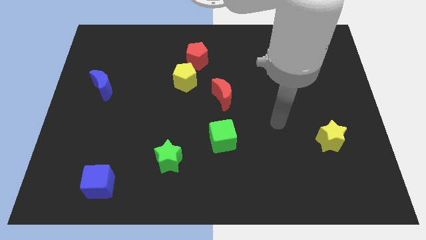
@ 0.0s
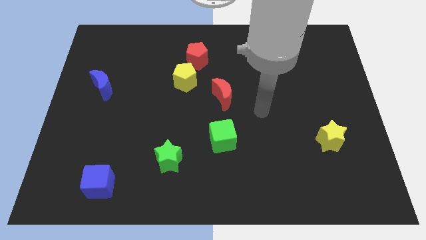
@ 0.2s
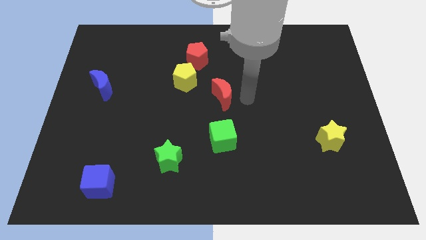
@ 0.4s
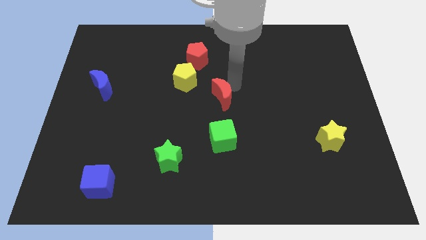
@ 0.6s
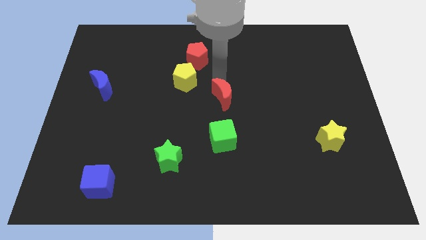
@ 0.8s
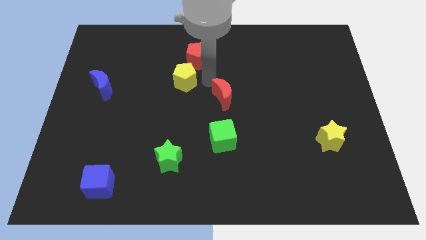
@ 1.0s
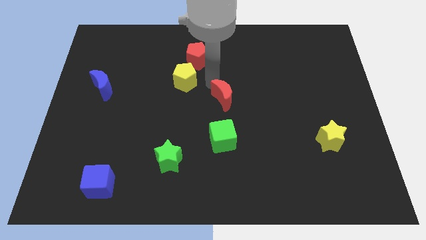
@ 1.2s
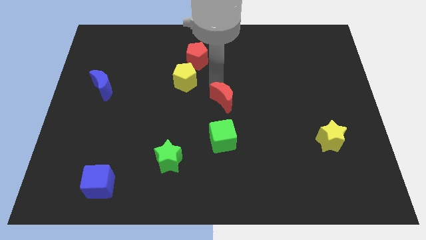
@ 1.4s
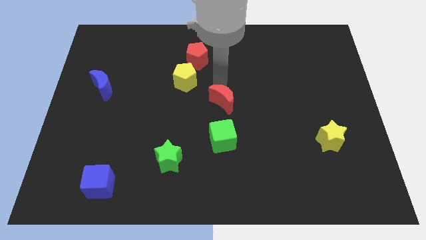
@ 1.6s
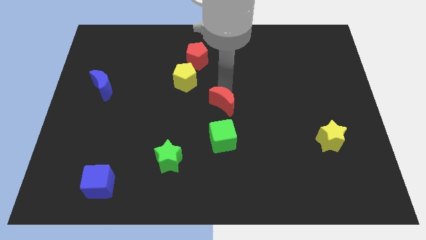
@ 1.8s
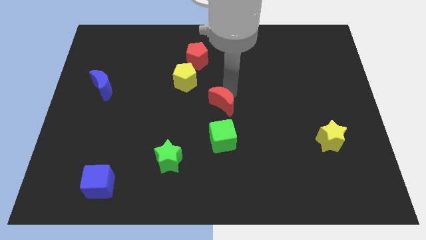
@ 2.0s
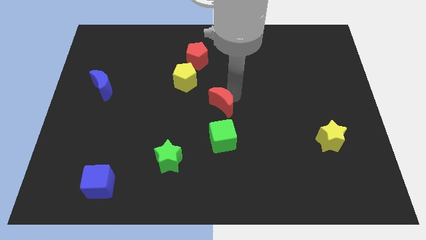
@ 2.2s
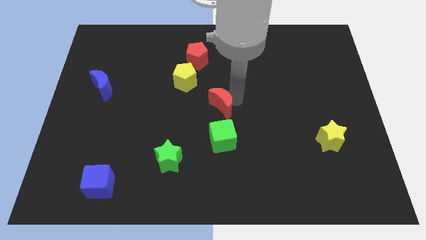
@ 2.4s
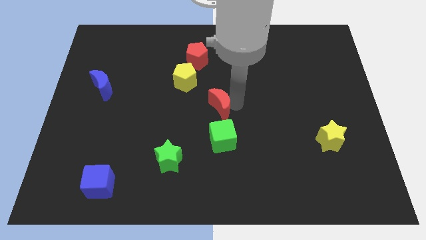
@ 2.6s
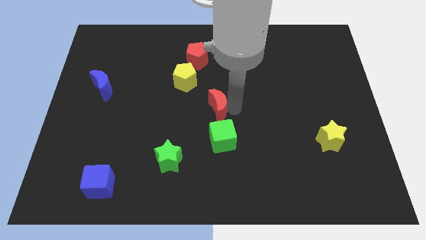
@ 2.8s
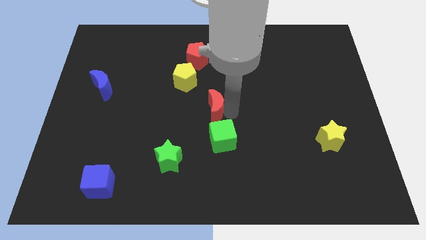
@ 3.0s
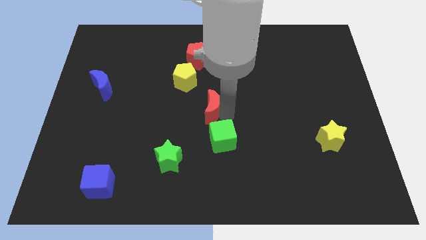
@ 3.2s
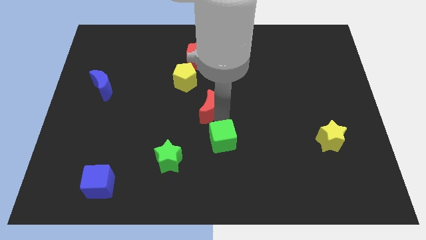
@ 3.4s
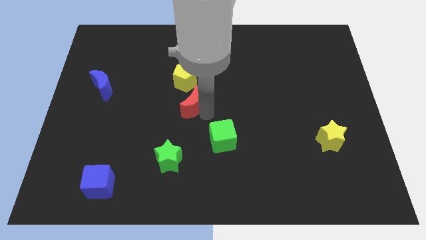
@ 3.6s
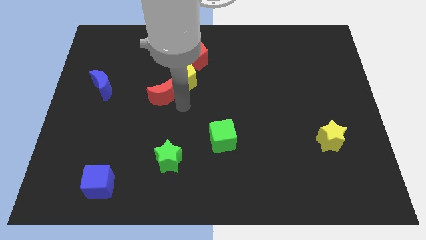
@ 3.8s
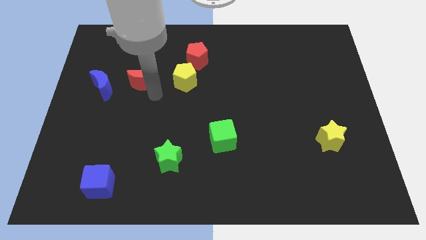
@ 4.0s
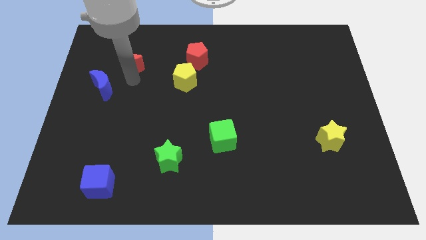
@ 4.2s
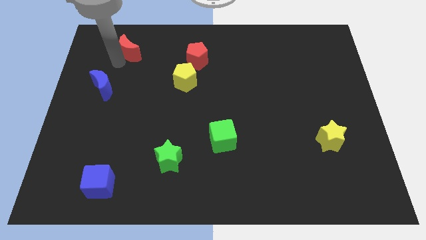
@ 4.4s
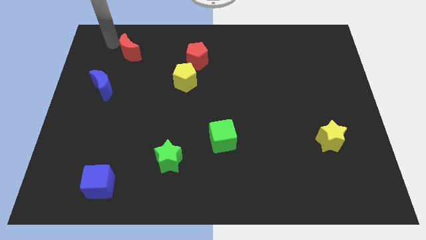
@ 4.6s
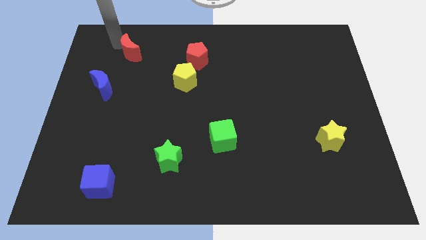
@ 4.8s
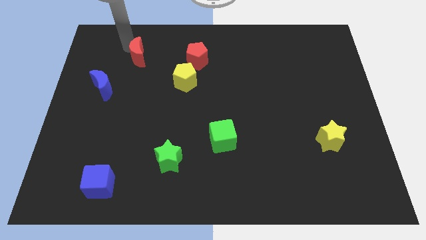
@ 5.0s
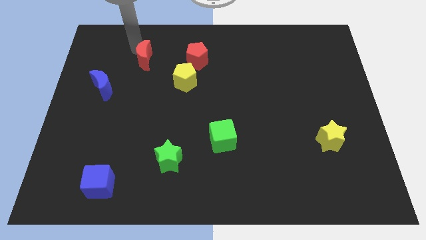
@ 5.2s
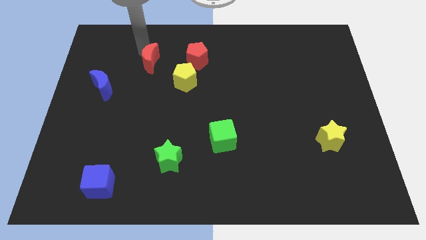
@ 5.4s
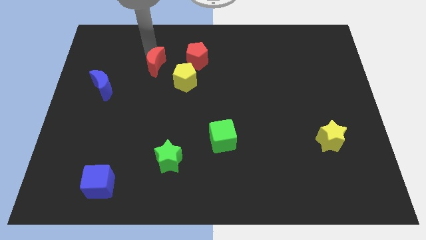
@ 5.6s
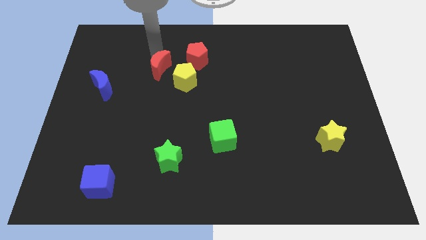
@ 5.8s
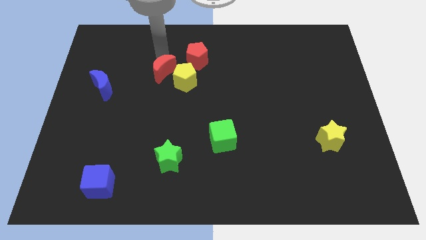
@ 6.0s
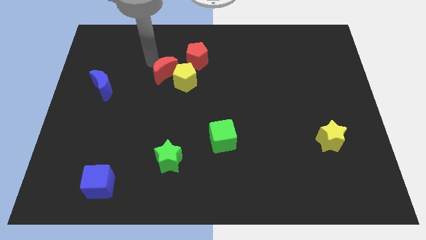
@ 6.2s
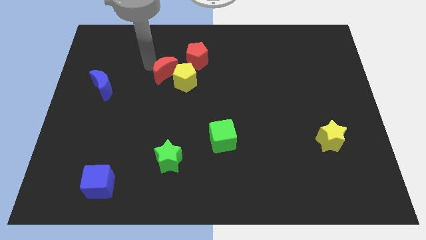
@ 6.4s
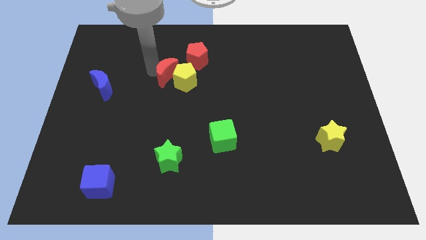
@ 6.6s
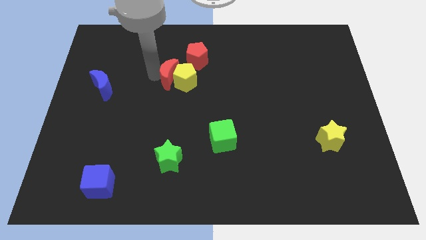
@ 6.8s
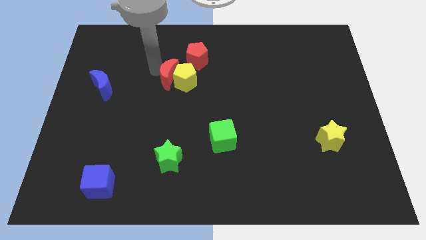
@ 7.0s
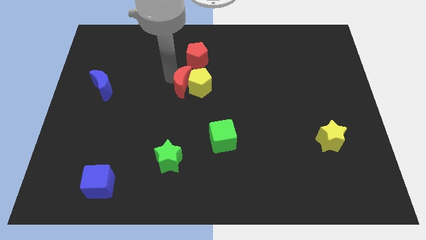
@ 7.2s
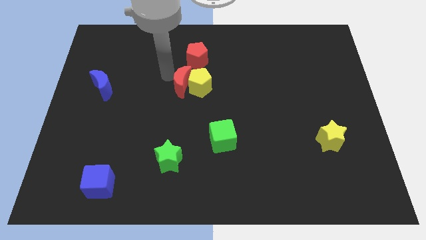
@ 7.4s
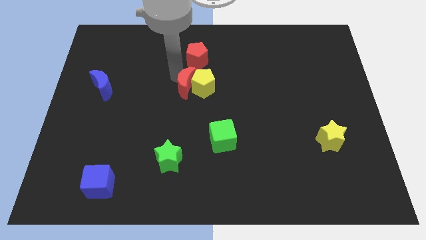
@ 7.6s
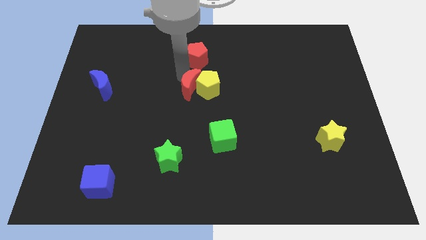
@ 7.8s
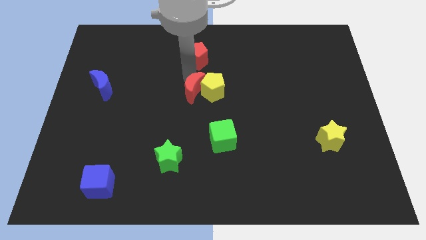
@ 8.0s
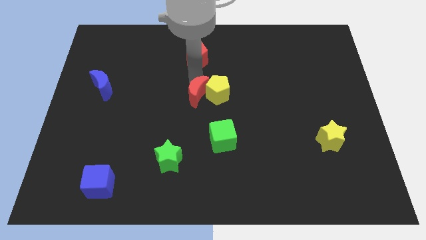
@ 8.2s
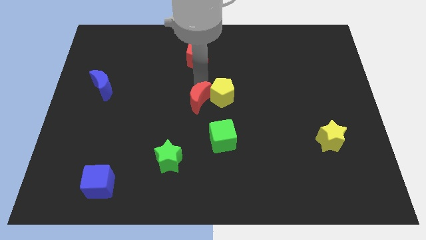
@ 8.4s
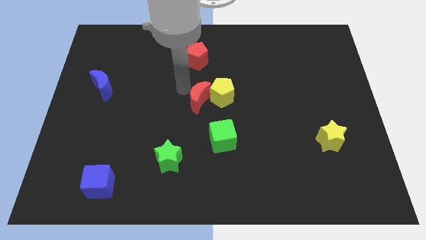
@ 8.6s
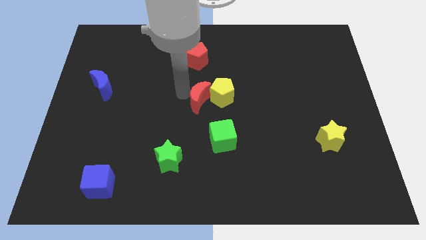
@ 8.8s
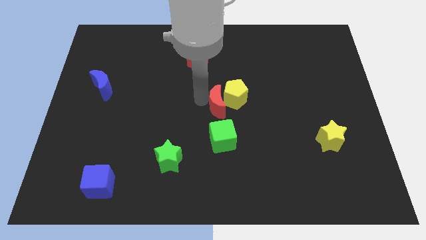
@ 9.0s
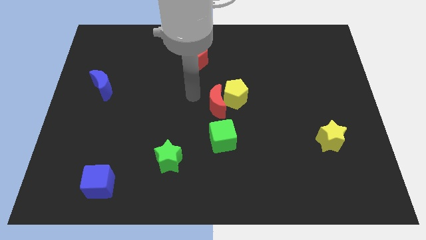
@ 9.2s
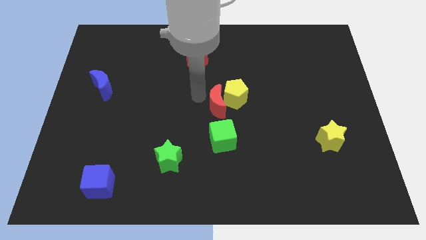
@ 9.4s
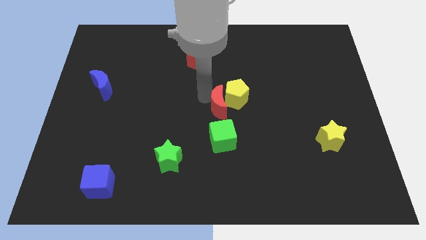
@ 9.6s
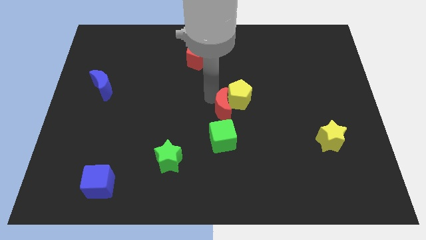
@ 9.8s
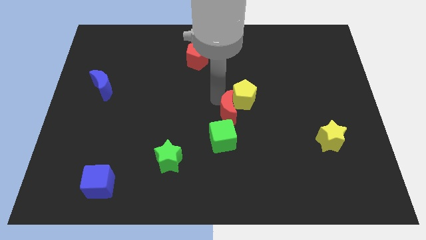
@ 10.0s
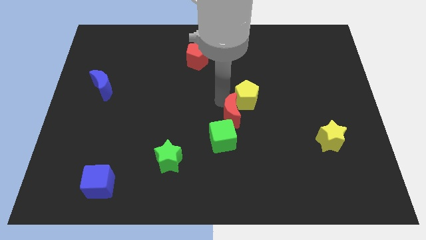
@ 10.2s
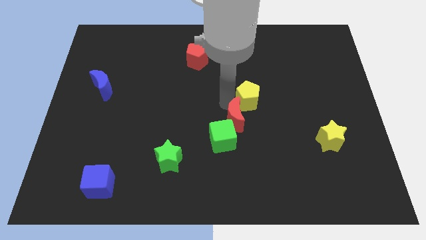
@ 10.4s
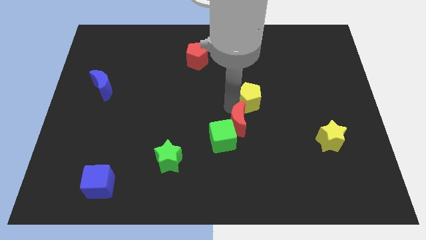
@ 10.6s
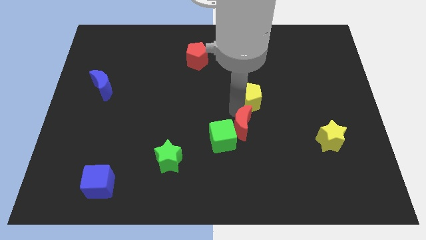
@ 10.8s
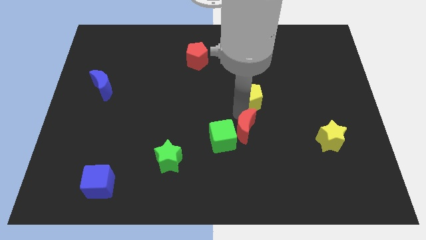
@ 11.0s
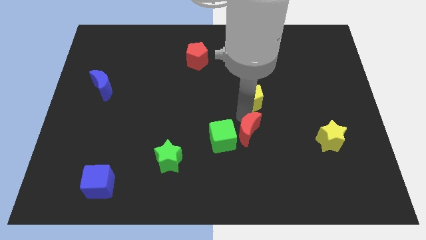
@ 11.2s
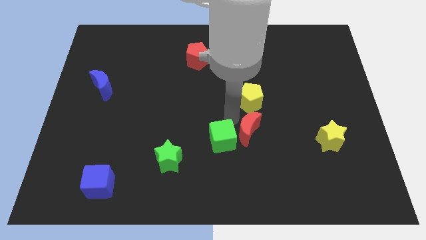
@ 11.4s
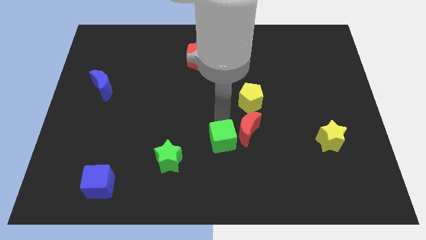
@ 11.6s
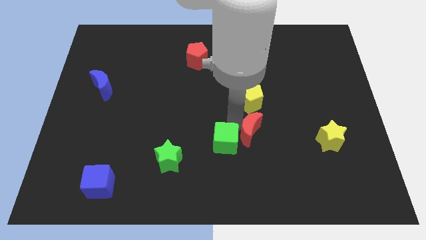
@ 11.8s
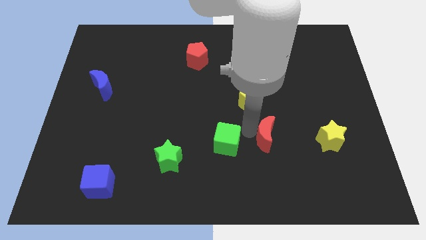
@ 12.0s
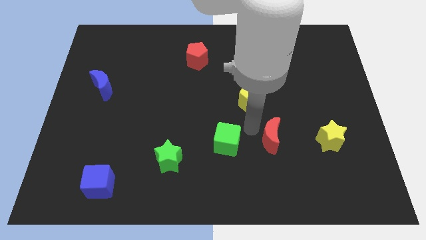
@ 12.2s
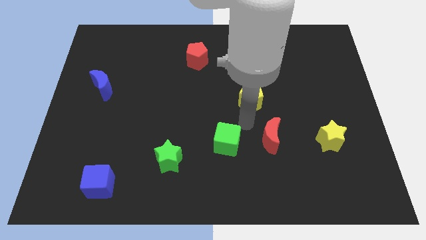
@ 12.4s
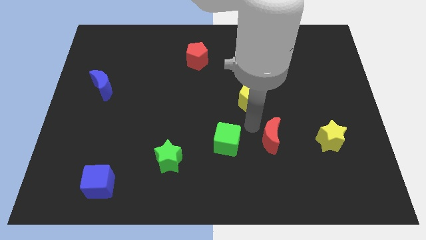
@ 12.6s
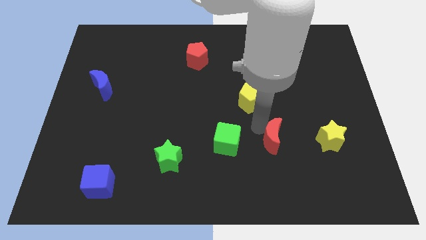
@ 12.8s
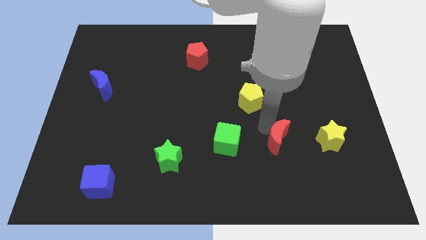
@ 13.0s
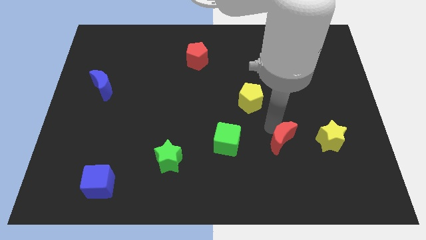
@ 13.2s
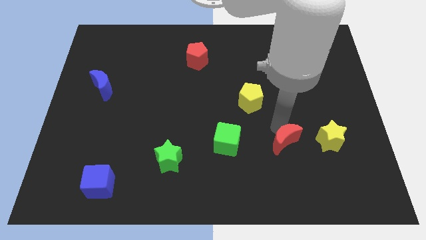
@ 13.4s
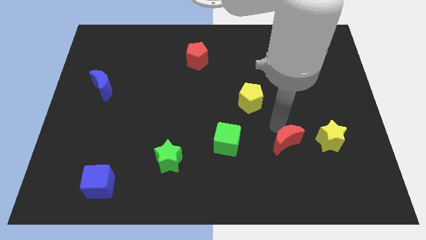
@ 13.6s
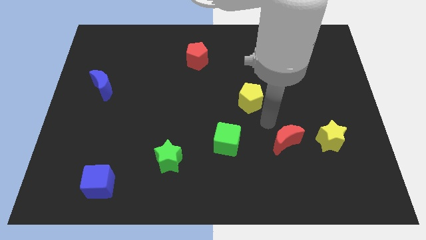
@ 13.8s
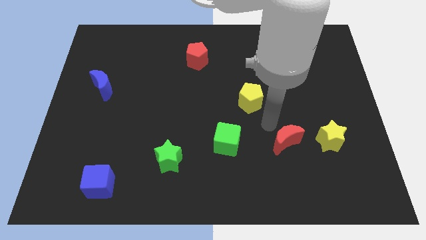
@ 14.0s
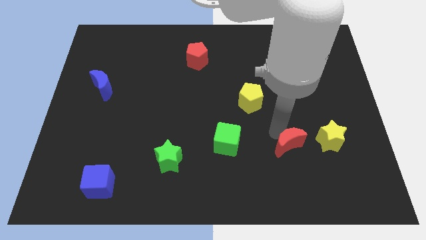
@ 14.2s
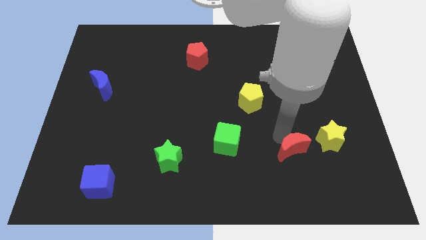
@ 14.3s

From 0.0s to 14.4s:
move the red moon down and right diagonally

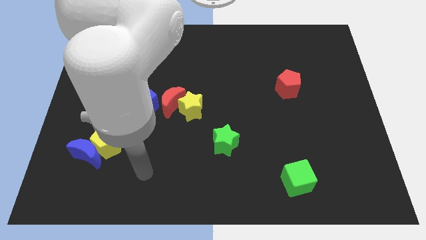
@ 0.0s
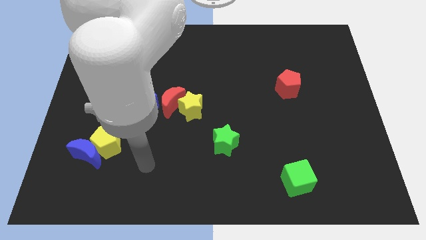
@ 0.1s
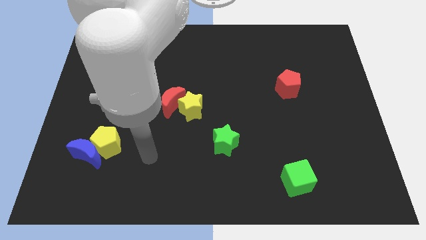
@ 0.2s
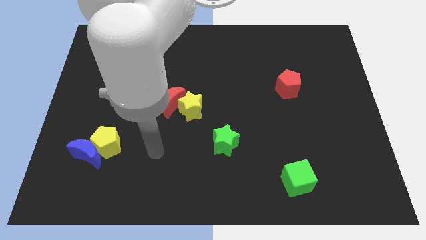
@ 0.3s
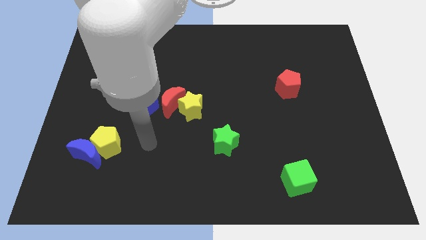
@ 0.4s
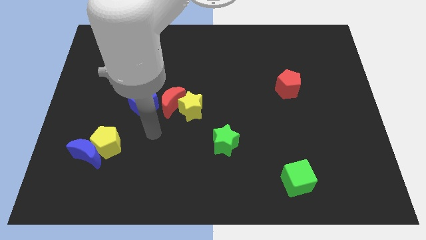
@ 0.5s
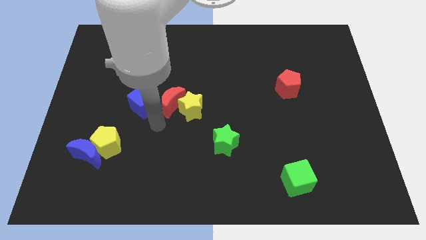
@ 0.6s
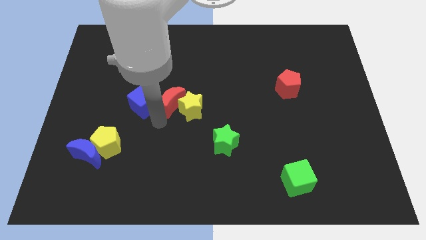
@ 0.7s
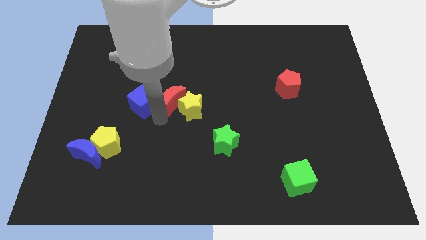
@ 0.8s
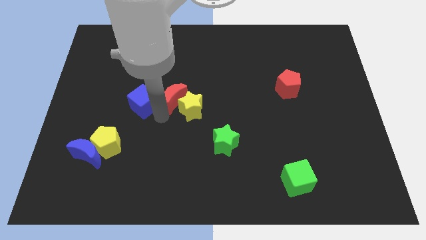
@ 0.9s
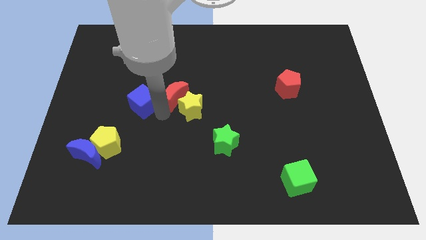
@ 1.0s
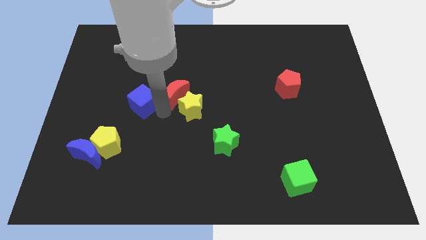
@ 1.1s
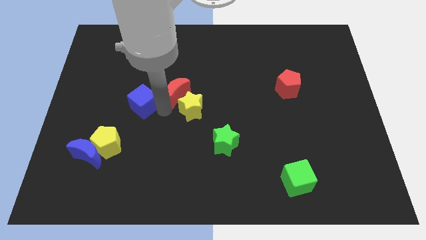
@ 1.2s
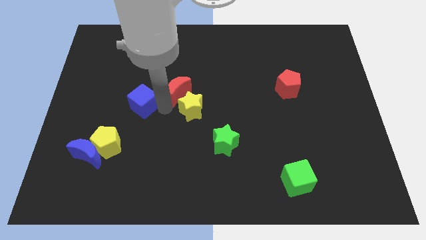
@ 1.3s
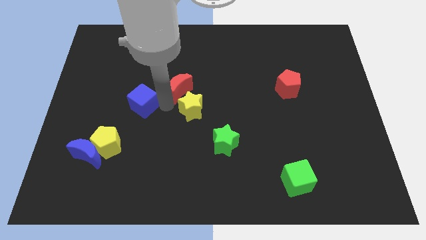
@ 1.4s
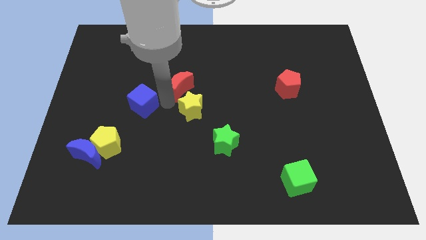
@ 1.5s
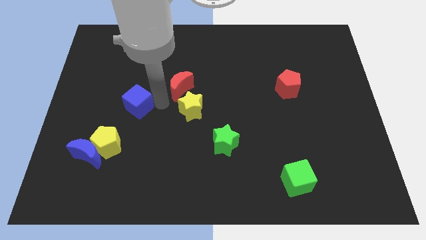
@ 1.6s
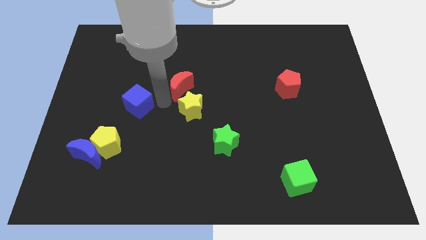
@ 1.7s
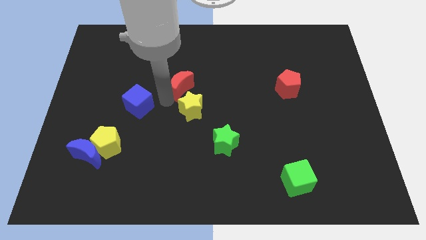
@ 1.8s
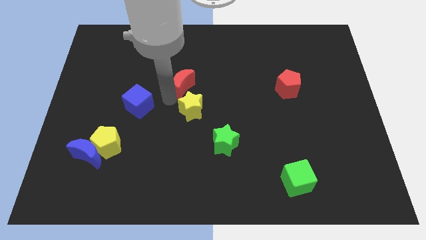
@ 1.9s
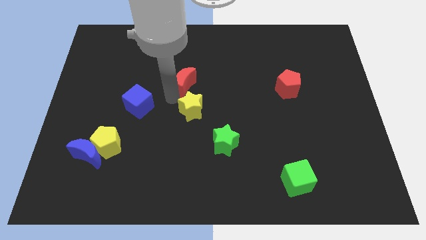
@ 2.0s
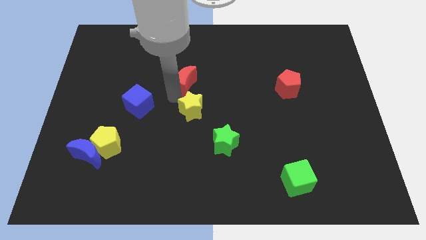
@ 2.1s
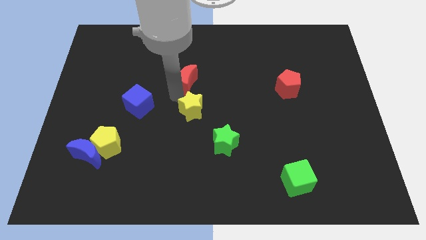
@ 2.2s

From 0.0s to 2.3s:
slightly move the red moon diagonally upwards and right
